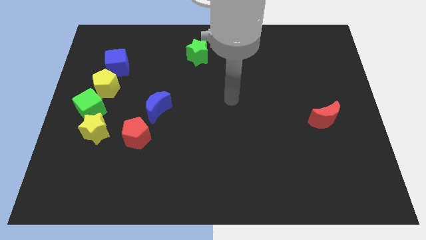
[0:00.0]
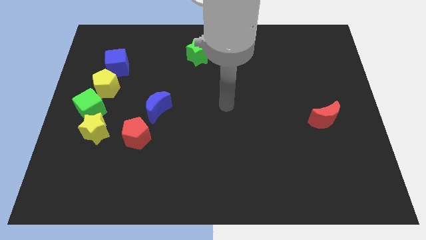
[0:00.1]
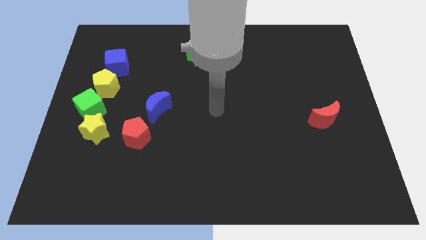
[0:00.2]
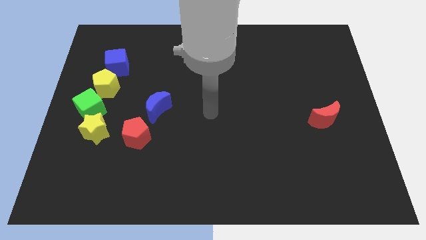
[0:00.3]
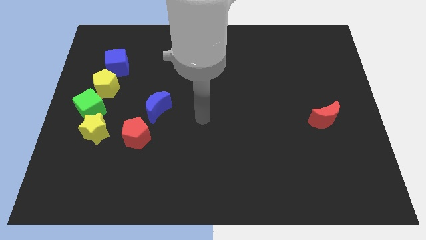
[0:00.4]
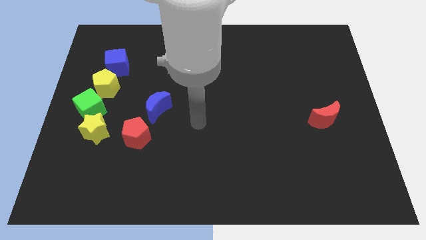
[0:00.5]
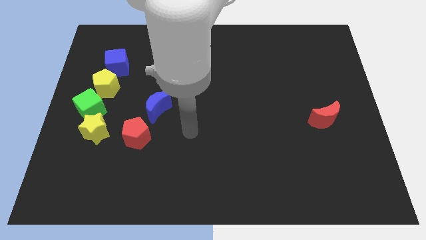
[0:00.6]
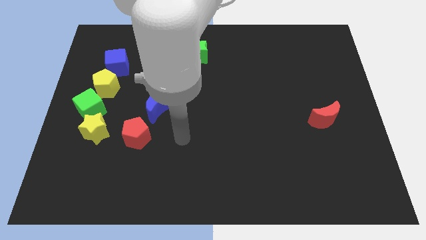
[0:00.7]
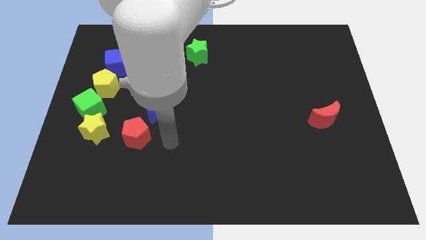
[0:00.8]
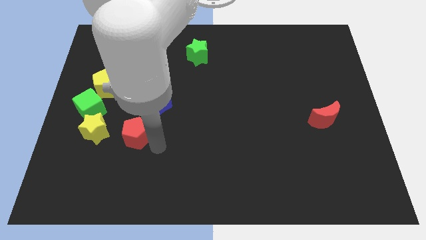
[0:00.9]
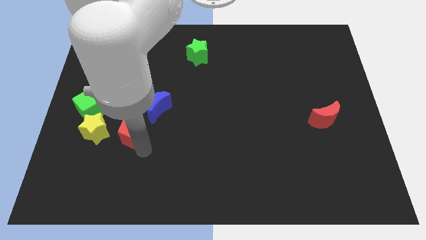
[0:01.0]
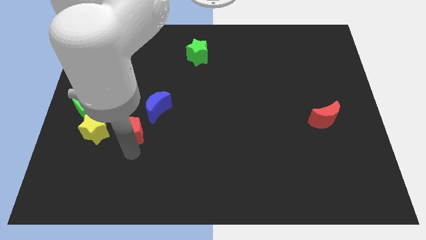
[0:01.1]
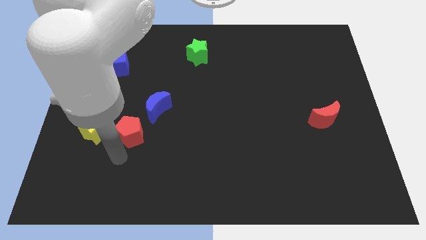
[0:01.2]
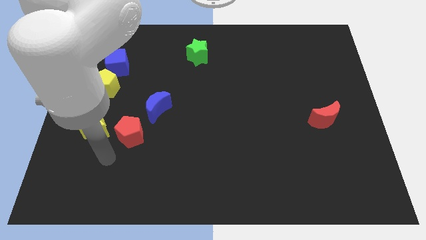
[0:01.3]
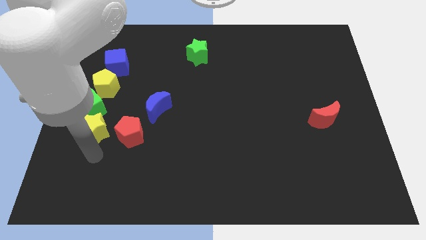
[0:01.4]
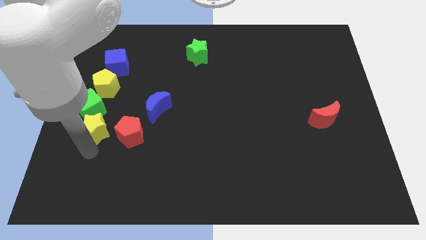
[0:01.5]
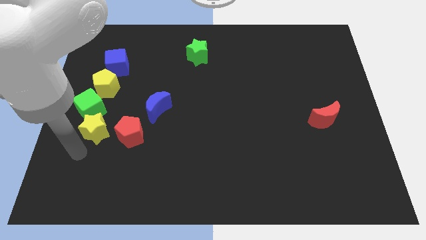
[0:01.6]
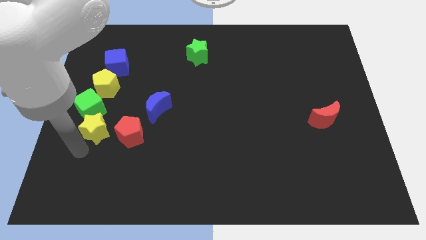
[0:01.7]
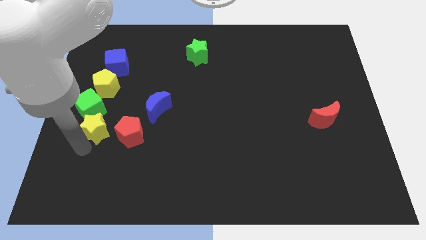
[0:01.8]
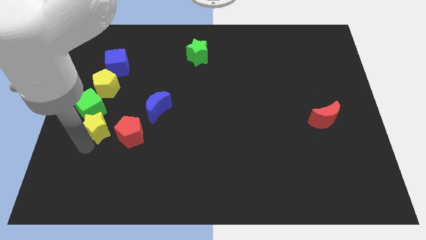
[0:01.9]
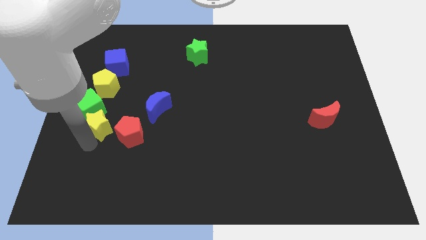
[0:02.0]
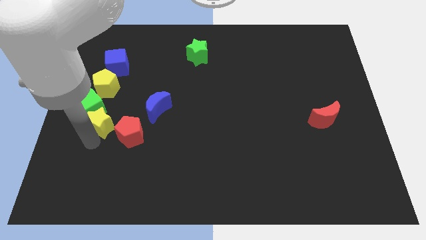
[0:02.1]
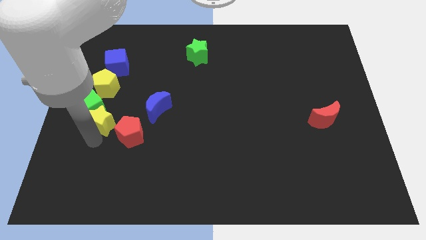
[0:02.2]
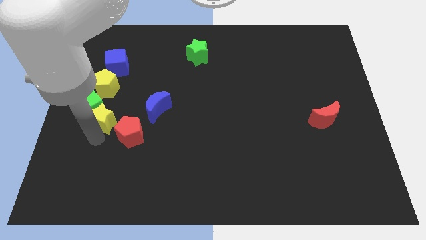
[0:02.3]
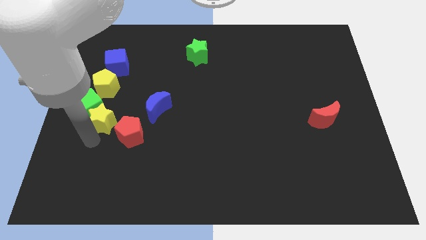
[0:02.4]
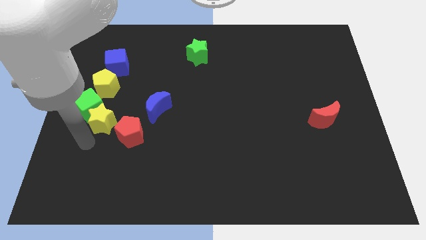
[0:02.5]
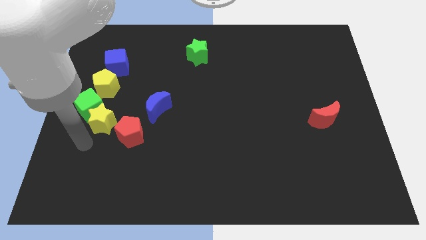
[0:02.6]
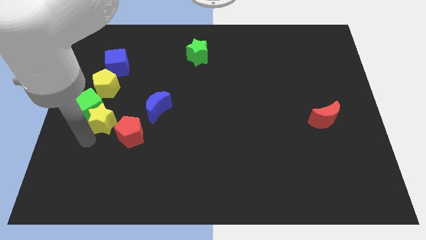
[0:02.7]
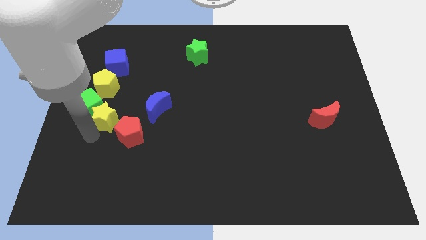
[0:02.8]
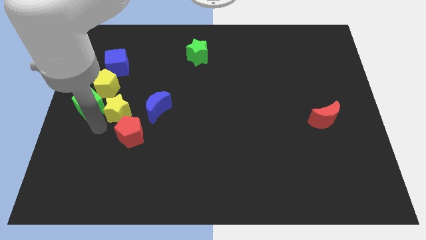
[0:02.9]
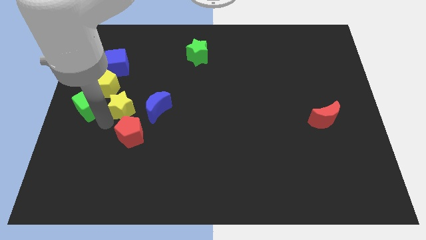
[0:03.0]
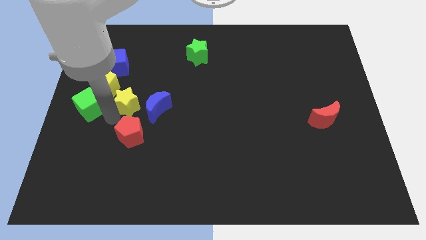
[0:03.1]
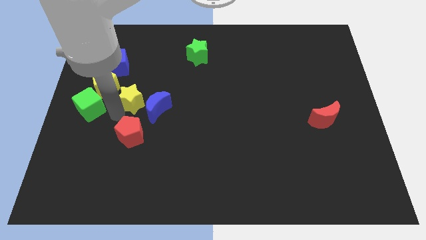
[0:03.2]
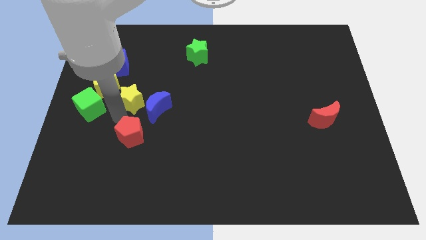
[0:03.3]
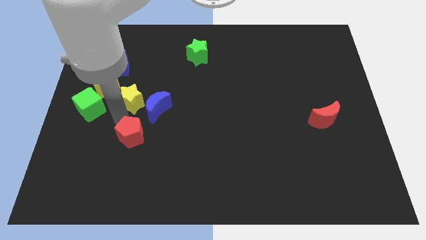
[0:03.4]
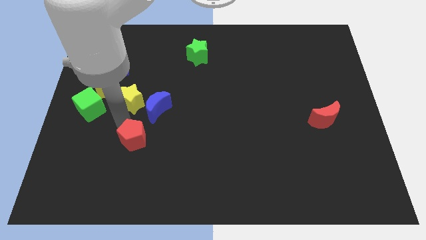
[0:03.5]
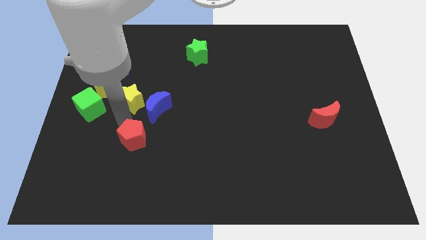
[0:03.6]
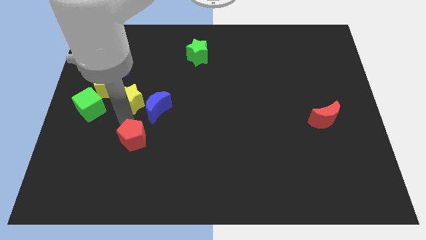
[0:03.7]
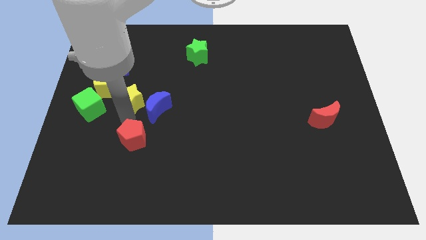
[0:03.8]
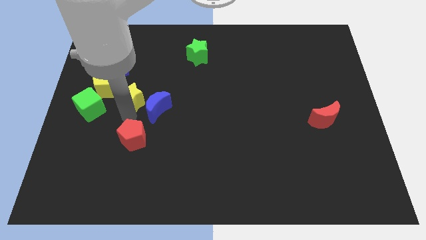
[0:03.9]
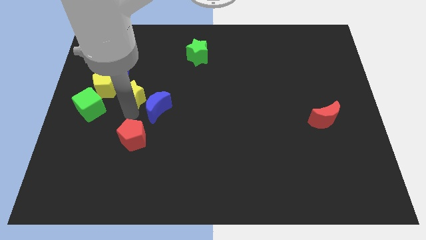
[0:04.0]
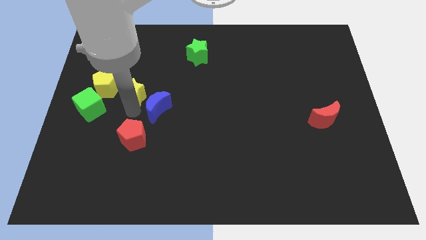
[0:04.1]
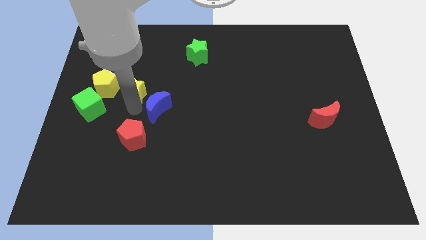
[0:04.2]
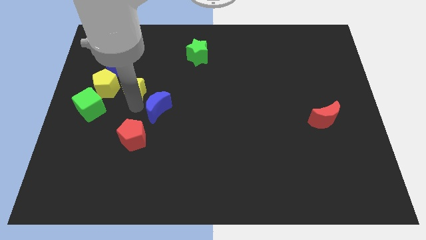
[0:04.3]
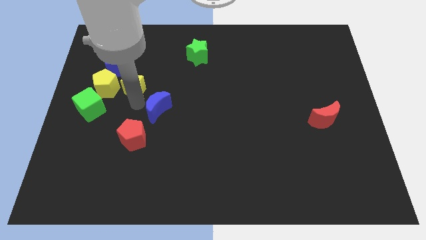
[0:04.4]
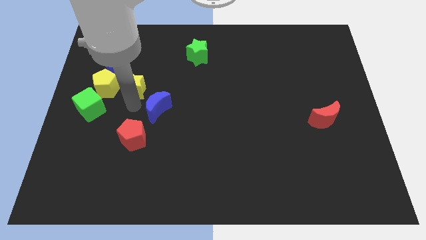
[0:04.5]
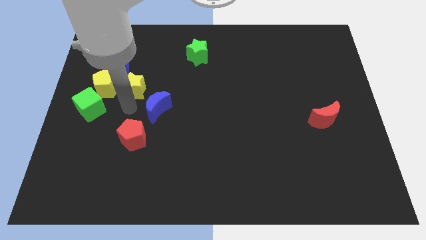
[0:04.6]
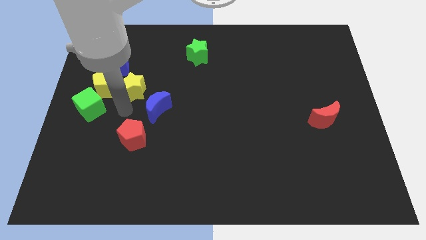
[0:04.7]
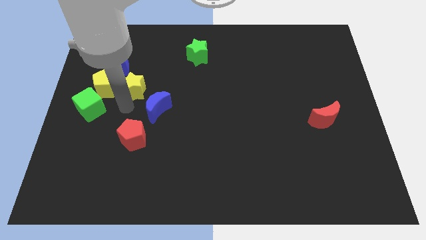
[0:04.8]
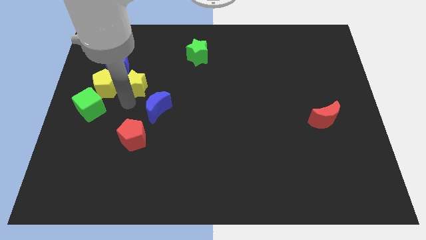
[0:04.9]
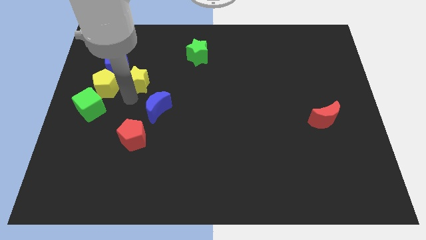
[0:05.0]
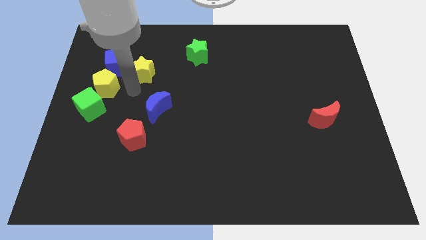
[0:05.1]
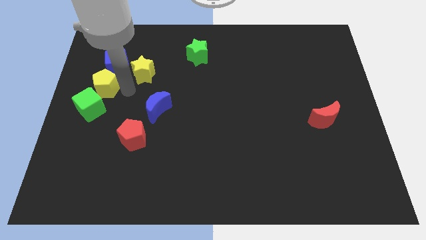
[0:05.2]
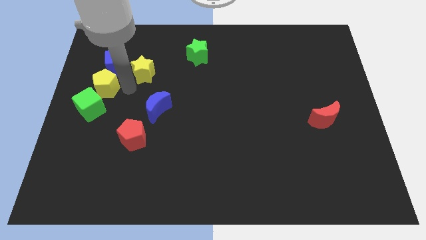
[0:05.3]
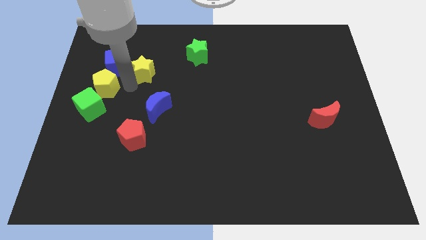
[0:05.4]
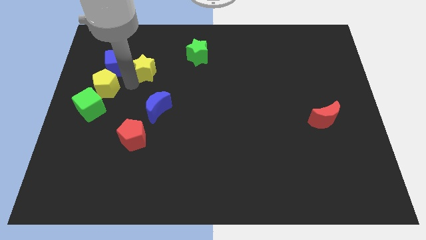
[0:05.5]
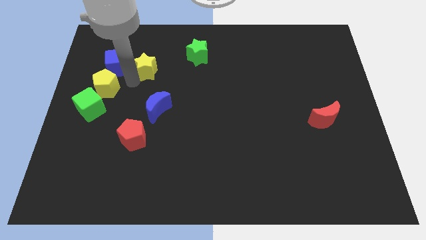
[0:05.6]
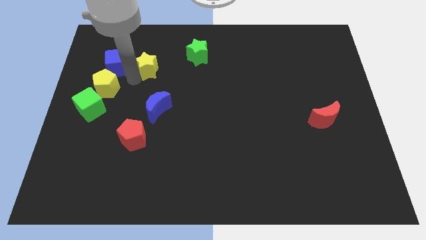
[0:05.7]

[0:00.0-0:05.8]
push the yellow star to the left of the green star

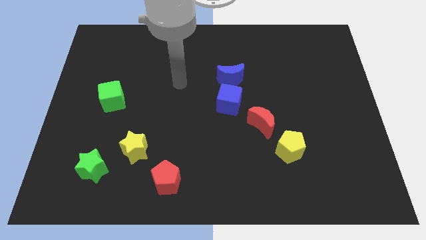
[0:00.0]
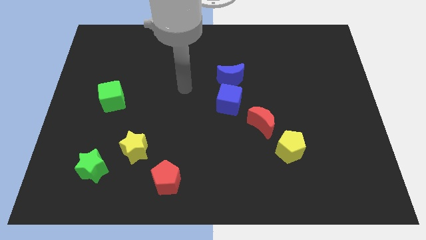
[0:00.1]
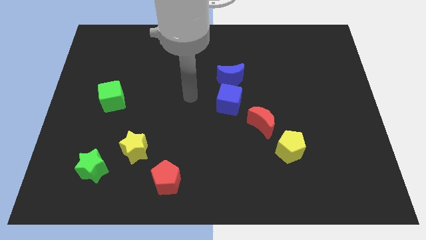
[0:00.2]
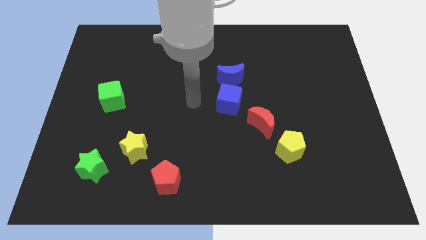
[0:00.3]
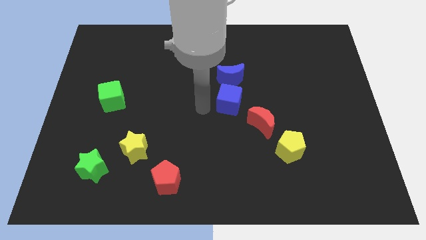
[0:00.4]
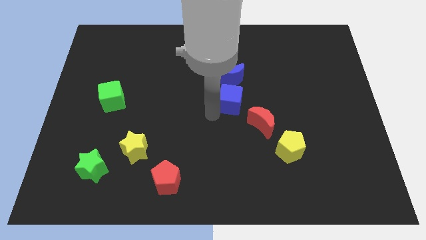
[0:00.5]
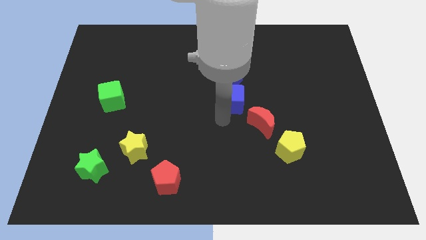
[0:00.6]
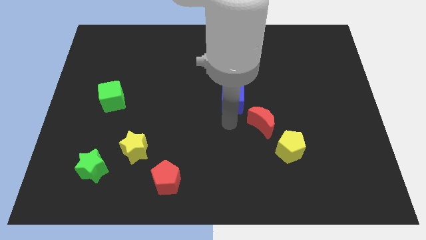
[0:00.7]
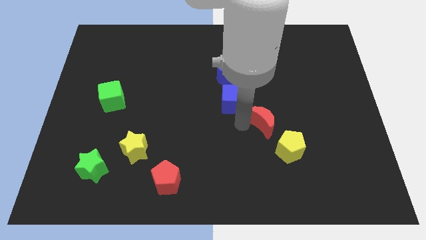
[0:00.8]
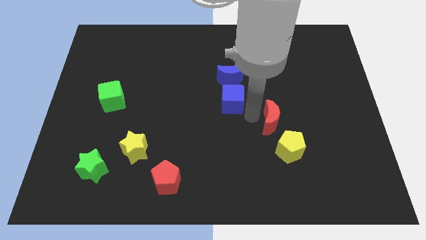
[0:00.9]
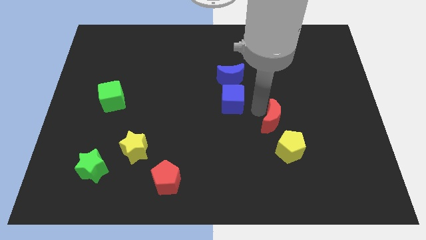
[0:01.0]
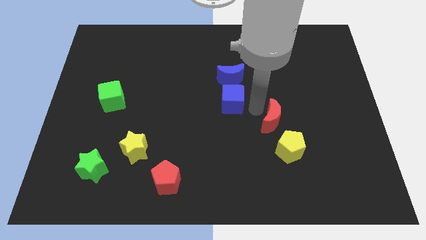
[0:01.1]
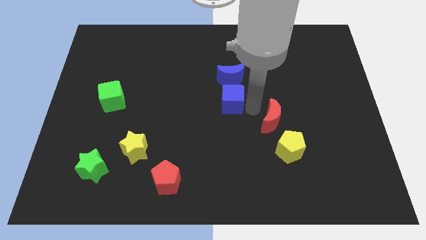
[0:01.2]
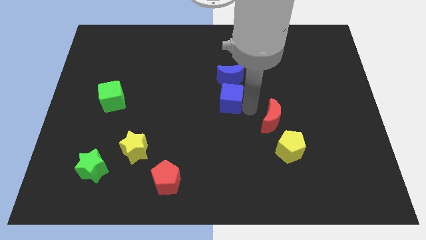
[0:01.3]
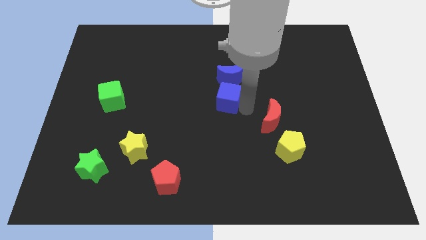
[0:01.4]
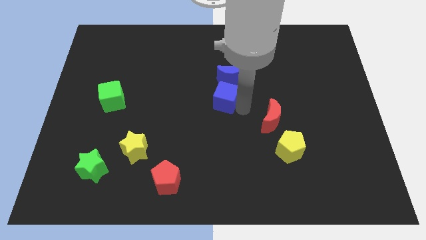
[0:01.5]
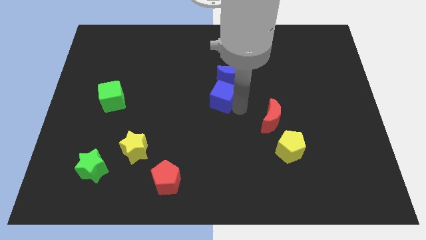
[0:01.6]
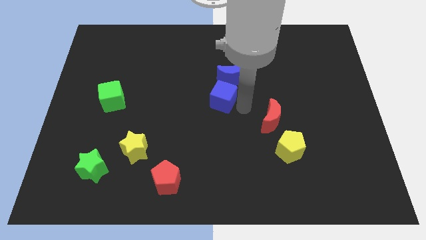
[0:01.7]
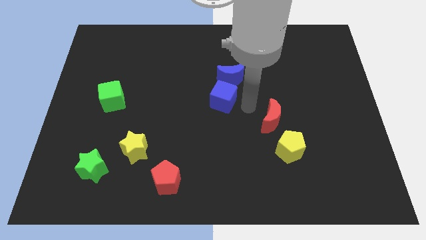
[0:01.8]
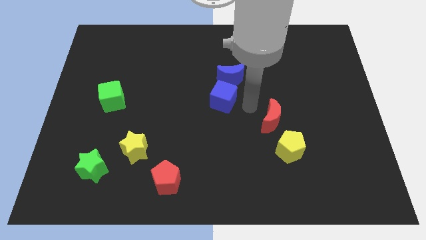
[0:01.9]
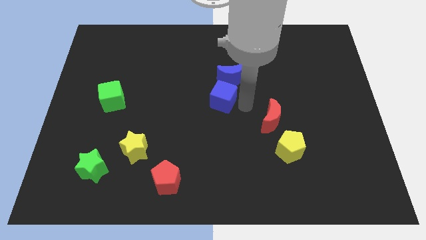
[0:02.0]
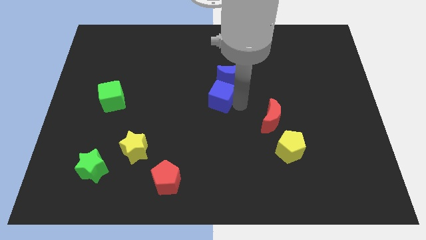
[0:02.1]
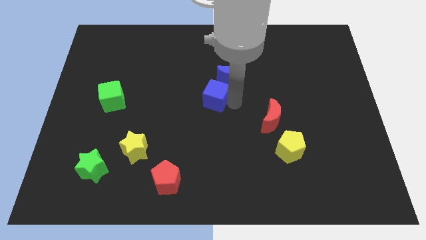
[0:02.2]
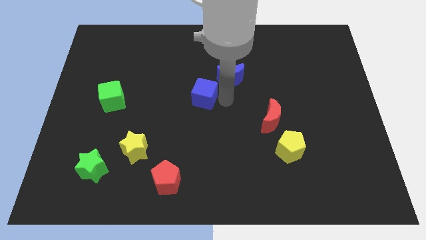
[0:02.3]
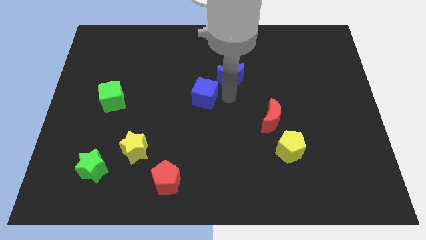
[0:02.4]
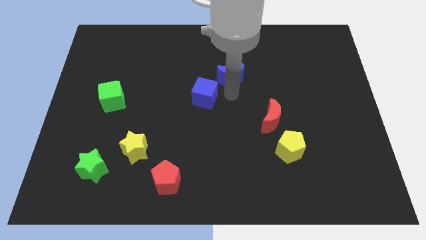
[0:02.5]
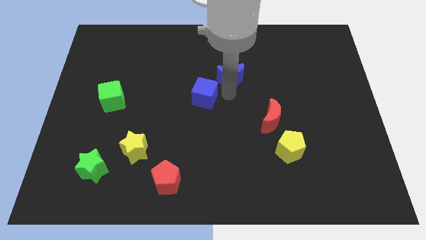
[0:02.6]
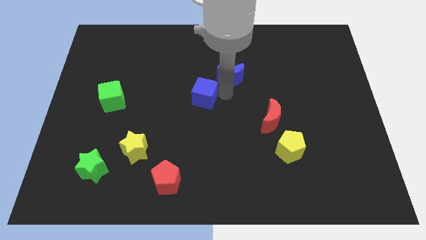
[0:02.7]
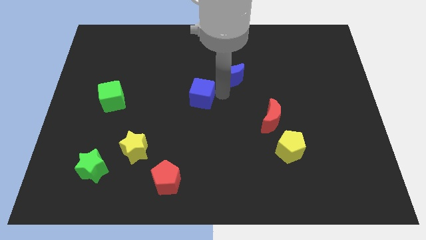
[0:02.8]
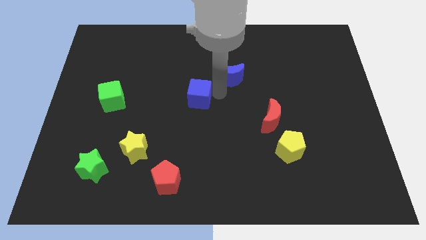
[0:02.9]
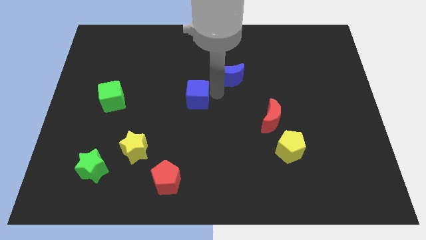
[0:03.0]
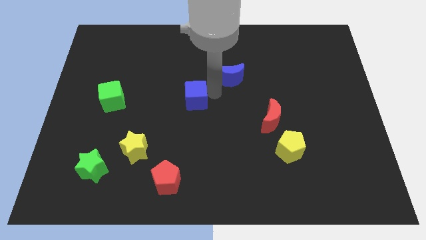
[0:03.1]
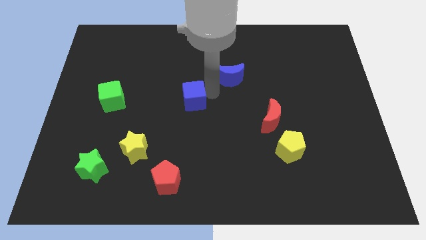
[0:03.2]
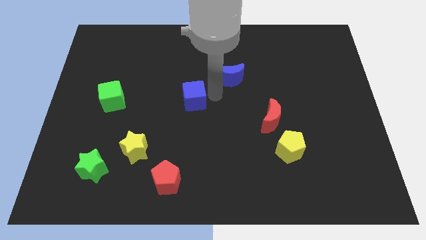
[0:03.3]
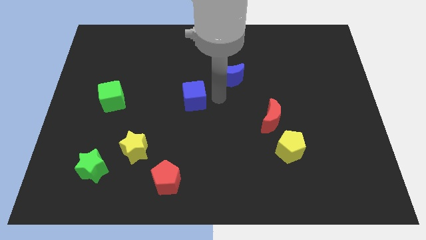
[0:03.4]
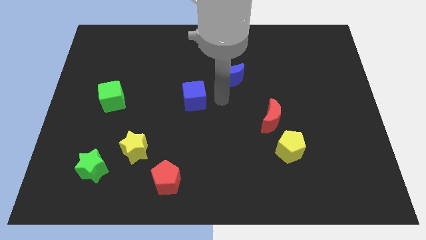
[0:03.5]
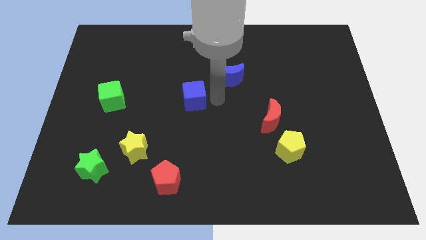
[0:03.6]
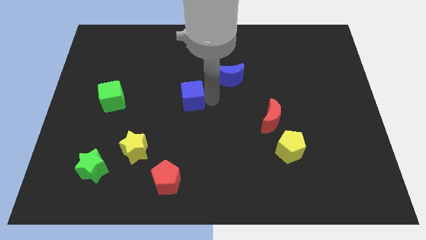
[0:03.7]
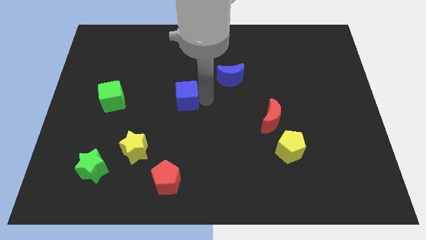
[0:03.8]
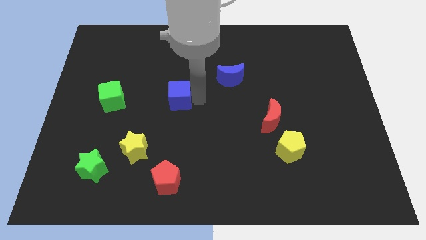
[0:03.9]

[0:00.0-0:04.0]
push the blue cube to the right side of the green cube
